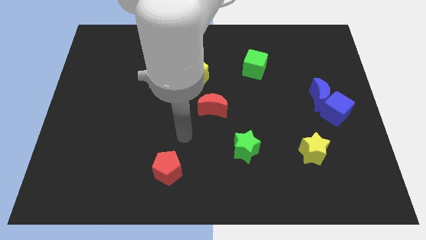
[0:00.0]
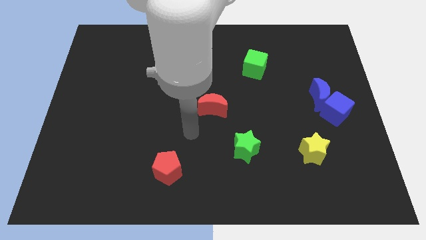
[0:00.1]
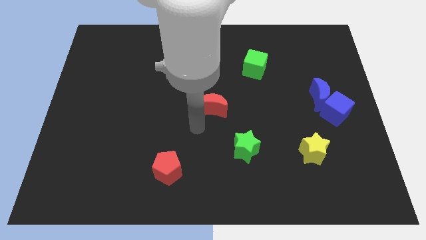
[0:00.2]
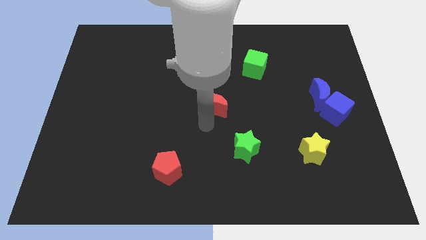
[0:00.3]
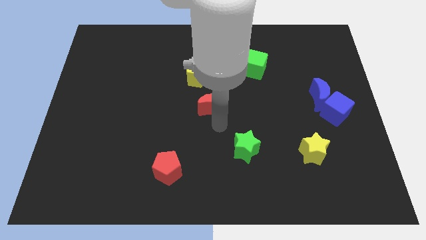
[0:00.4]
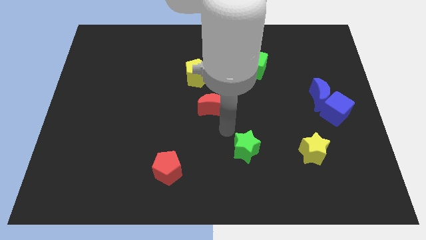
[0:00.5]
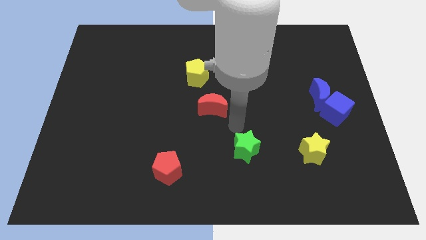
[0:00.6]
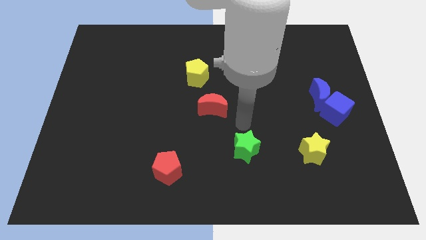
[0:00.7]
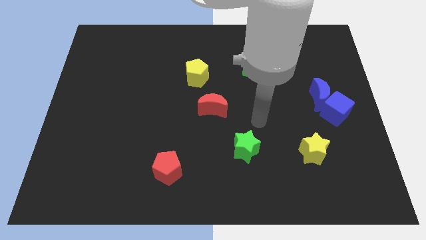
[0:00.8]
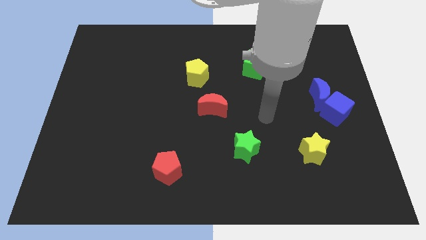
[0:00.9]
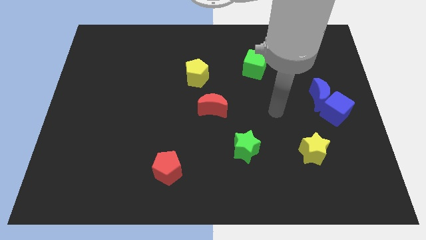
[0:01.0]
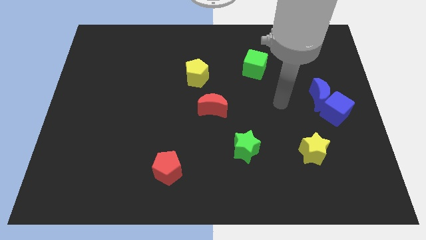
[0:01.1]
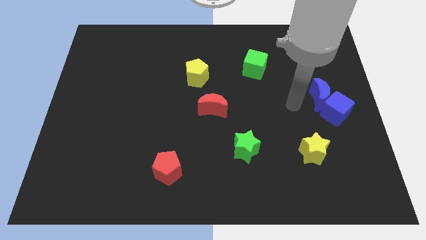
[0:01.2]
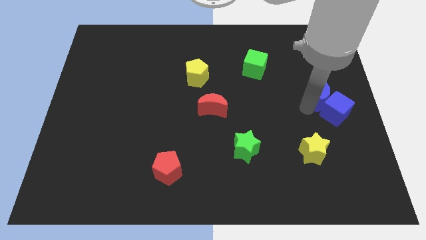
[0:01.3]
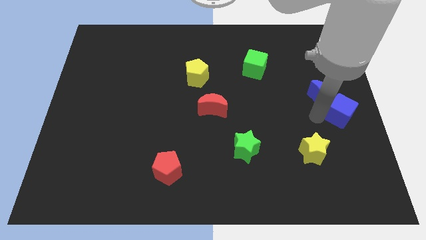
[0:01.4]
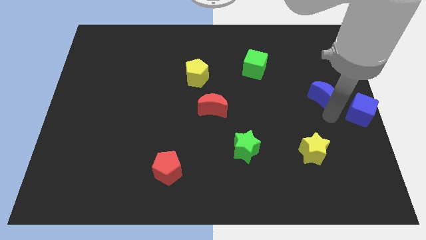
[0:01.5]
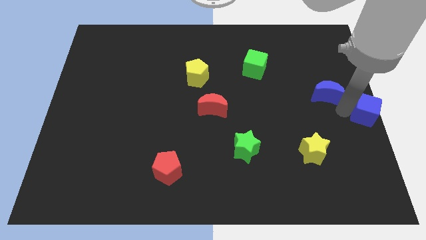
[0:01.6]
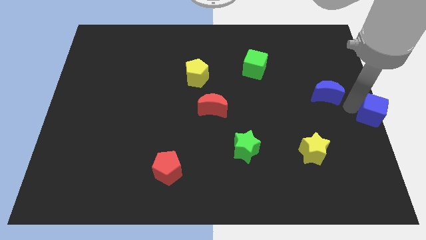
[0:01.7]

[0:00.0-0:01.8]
pull the blue moon apart from the blue cube

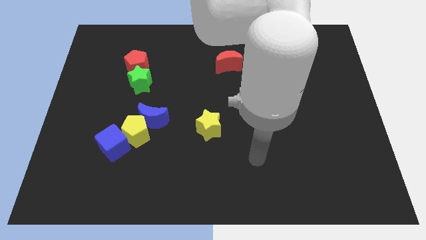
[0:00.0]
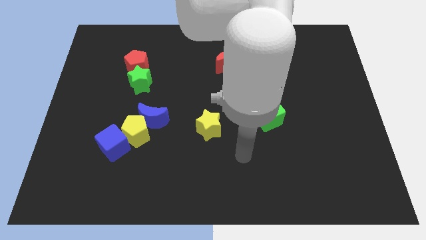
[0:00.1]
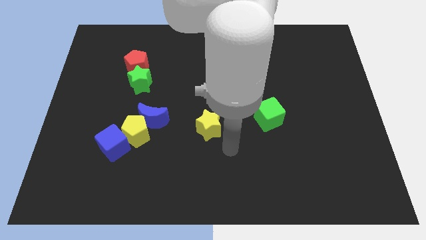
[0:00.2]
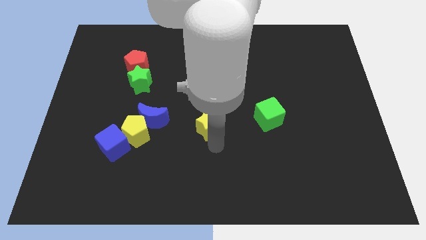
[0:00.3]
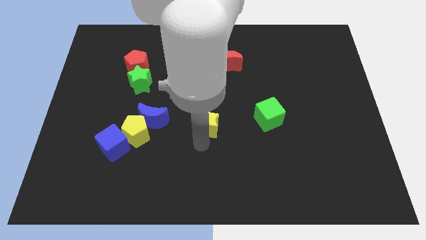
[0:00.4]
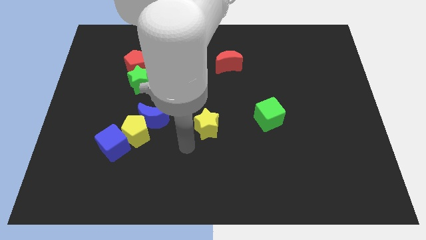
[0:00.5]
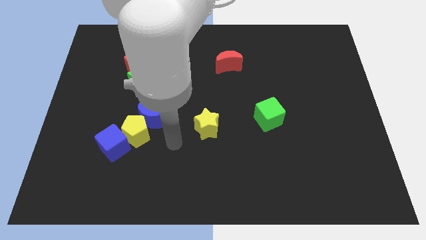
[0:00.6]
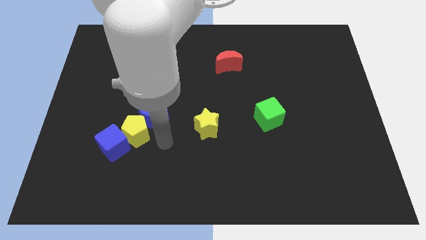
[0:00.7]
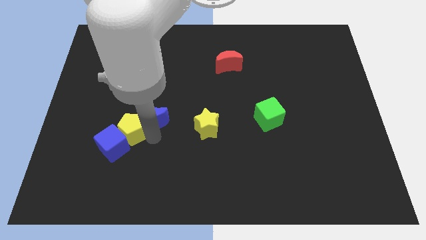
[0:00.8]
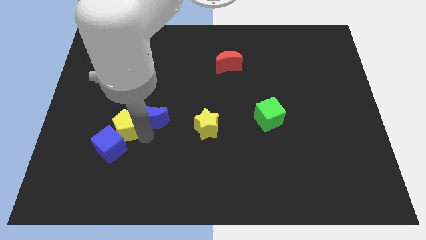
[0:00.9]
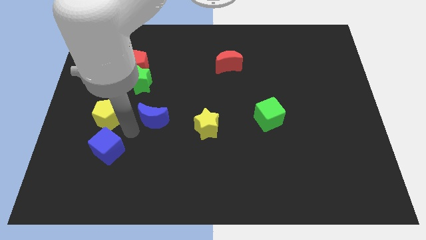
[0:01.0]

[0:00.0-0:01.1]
separate the blue moon from the yellow pentagon

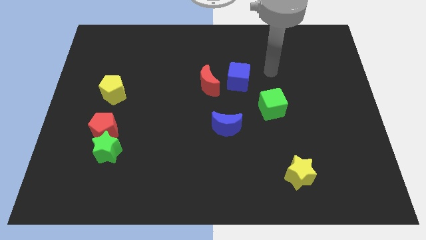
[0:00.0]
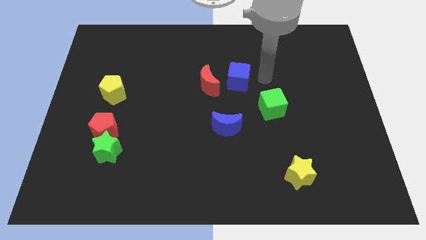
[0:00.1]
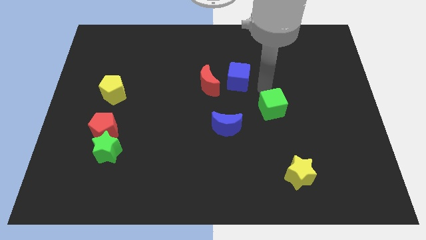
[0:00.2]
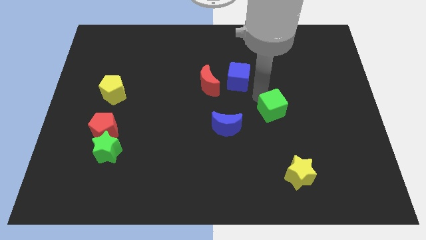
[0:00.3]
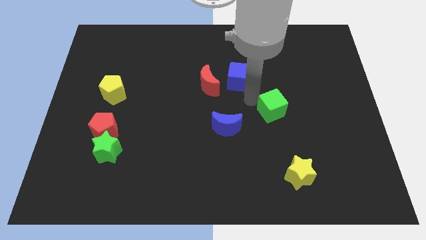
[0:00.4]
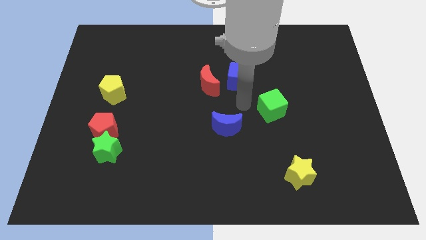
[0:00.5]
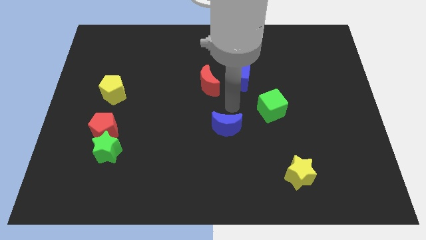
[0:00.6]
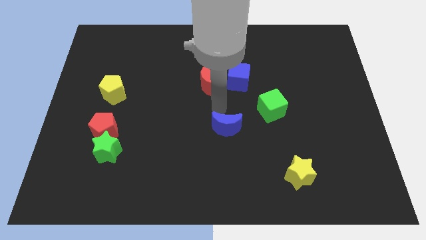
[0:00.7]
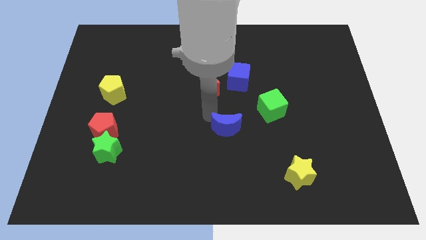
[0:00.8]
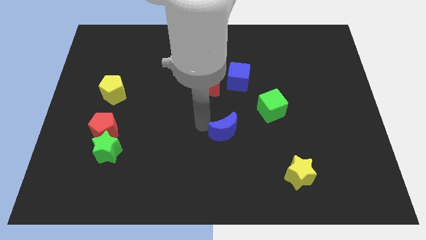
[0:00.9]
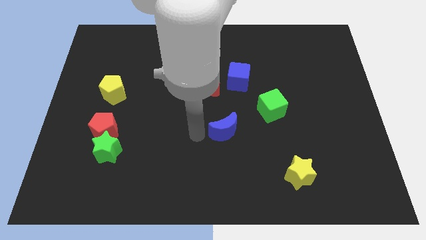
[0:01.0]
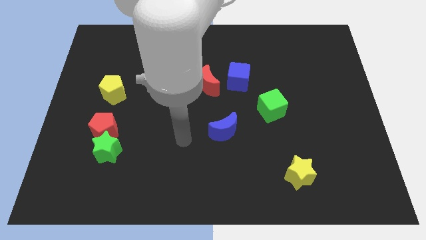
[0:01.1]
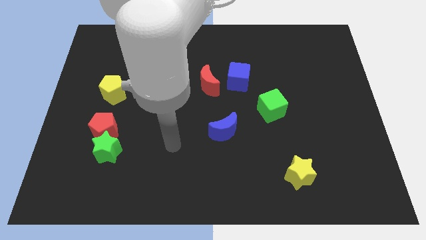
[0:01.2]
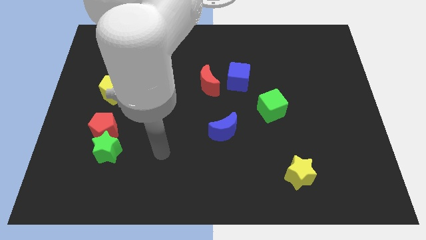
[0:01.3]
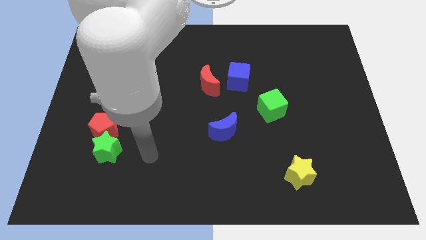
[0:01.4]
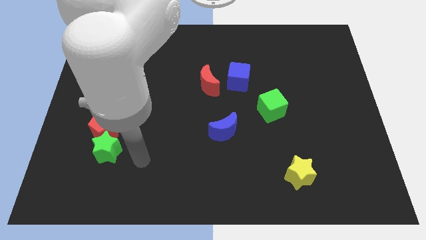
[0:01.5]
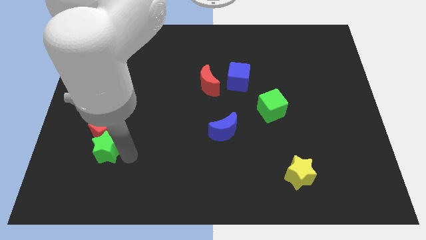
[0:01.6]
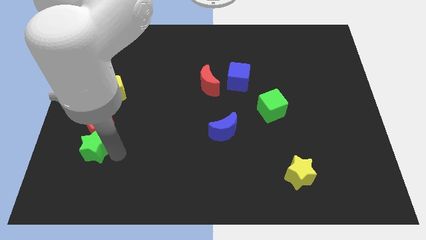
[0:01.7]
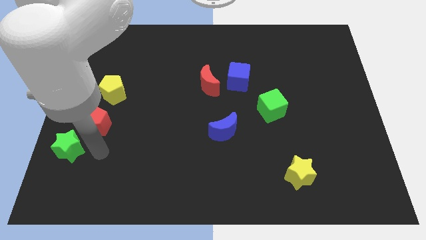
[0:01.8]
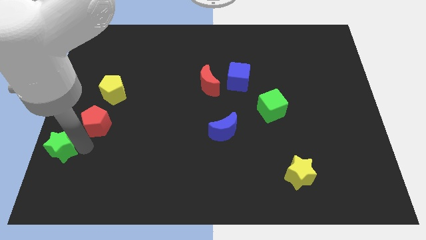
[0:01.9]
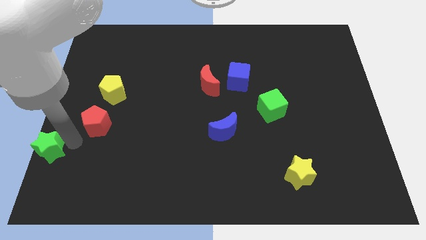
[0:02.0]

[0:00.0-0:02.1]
move the red pentagon away from the green star

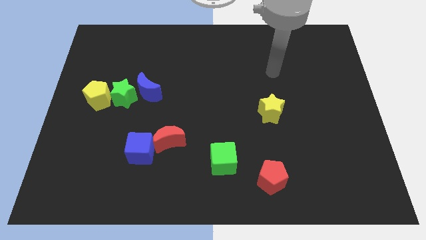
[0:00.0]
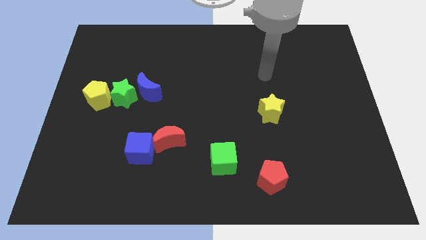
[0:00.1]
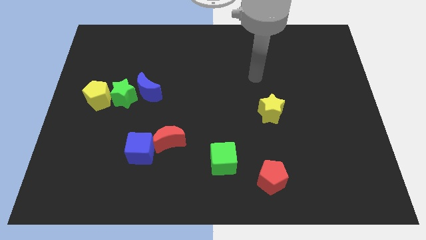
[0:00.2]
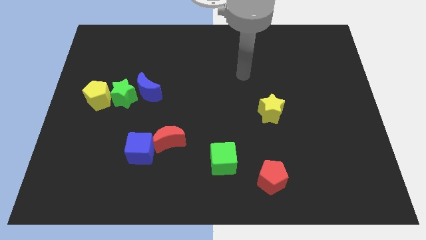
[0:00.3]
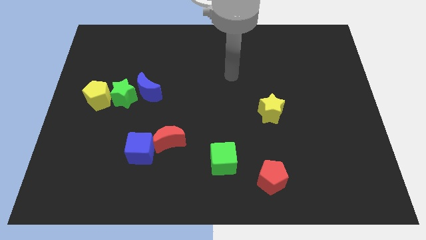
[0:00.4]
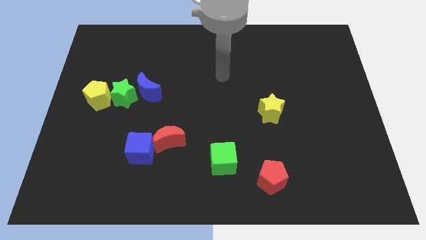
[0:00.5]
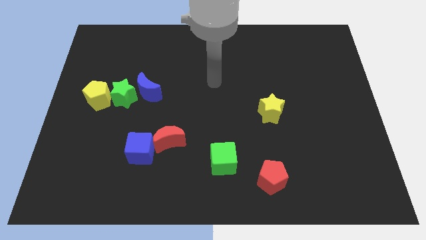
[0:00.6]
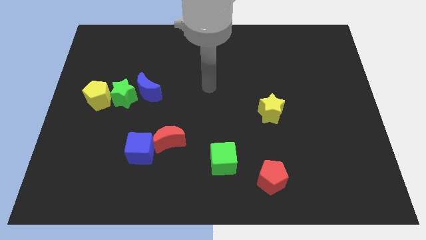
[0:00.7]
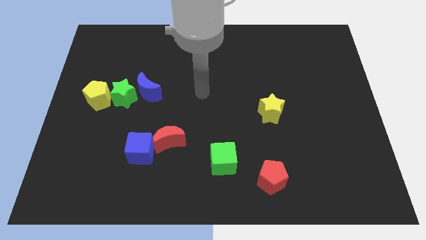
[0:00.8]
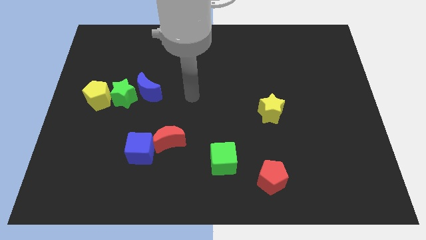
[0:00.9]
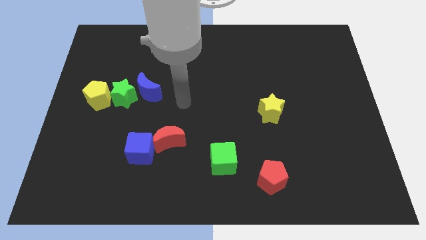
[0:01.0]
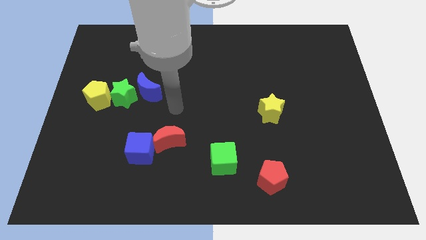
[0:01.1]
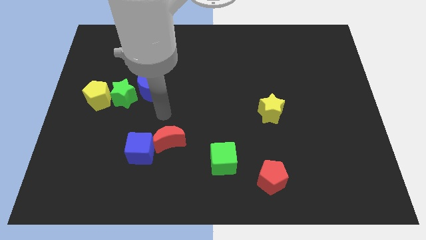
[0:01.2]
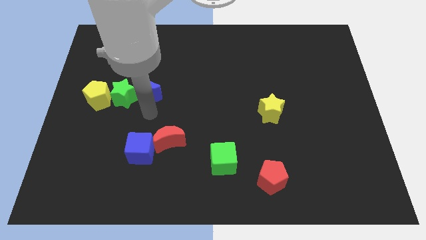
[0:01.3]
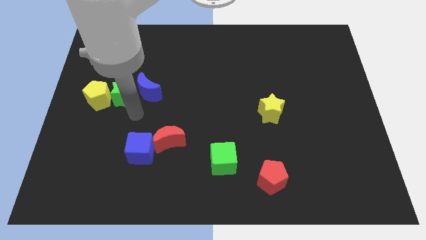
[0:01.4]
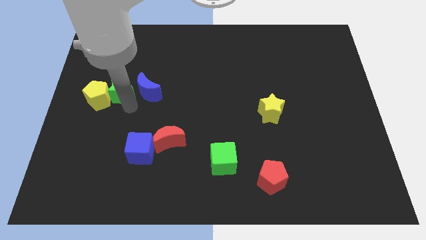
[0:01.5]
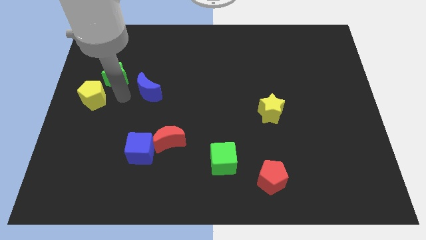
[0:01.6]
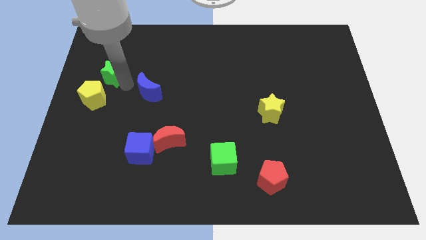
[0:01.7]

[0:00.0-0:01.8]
pull the blue moon apart from the green star

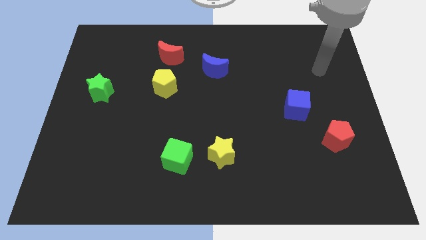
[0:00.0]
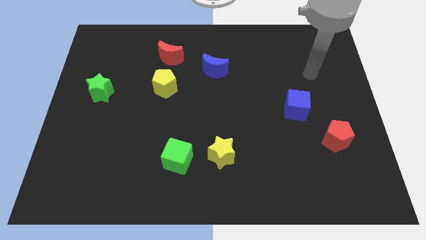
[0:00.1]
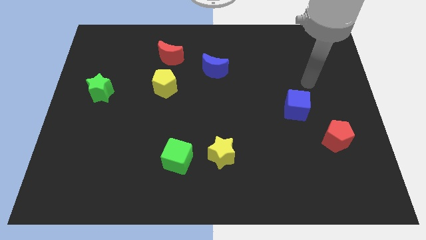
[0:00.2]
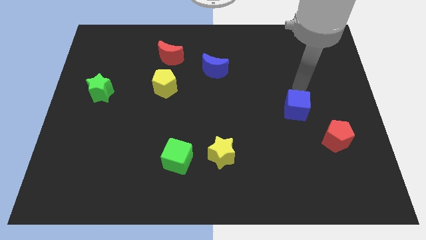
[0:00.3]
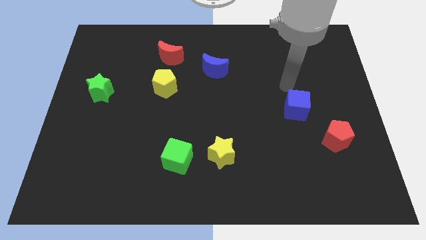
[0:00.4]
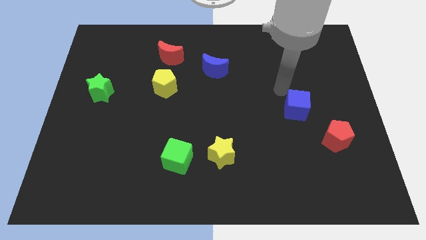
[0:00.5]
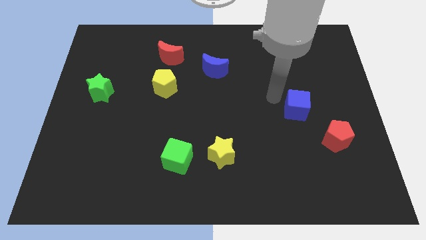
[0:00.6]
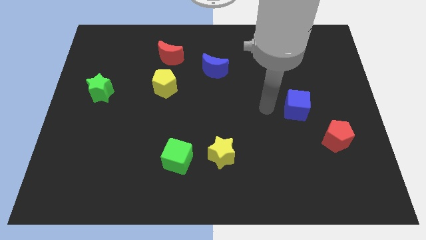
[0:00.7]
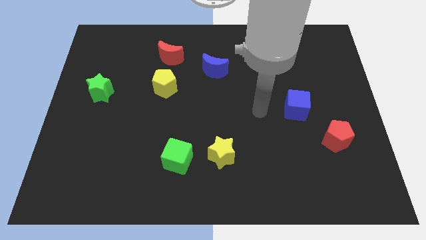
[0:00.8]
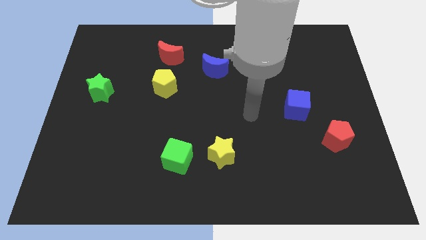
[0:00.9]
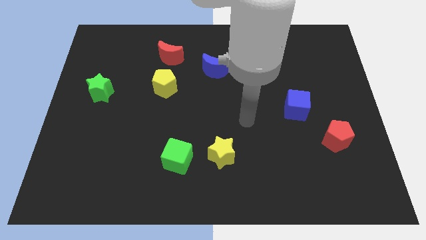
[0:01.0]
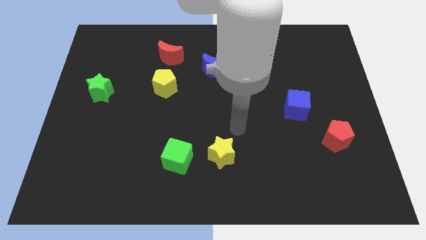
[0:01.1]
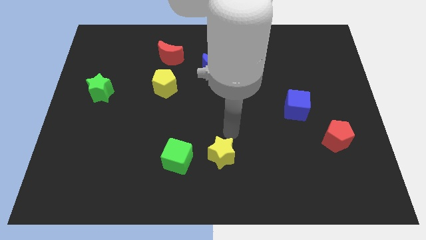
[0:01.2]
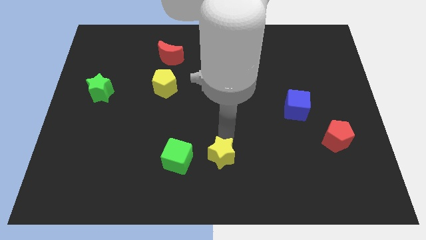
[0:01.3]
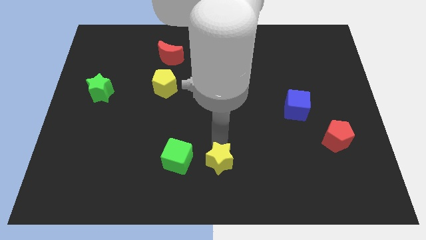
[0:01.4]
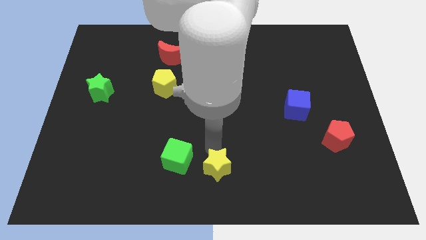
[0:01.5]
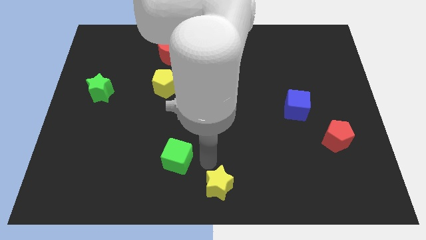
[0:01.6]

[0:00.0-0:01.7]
move the green cube away from the yellow star

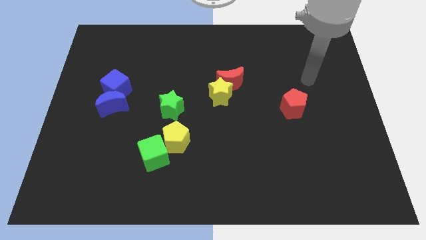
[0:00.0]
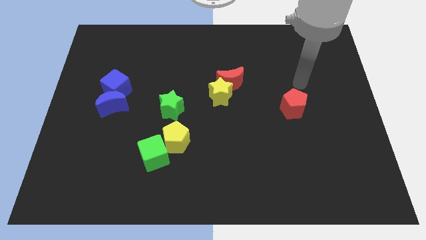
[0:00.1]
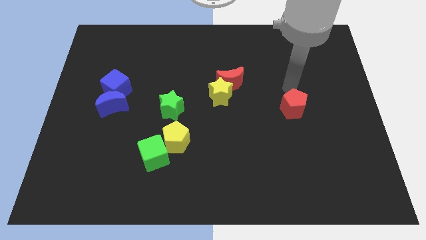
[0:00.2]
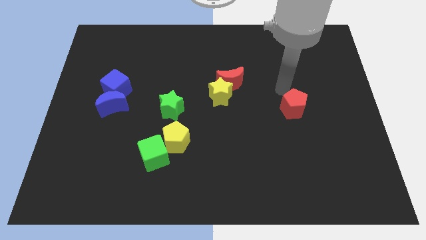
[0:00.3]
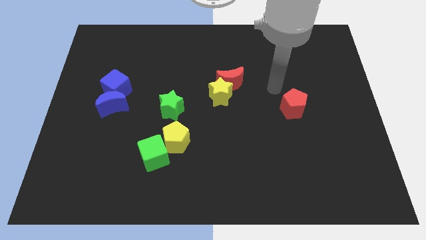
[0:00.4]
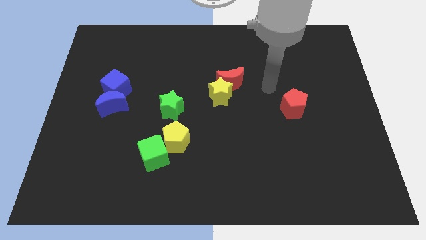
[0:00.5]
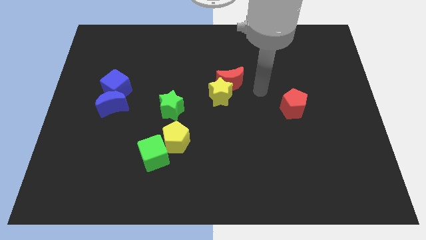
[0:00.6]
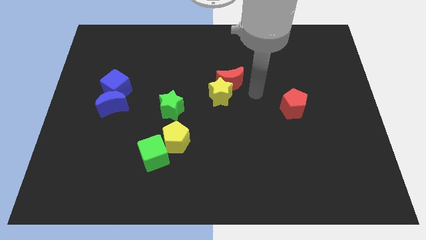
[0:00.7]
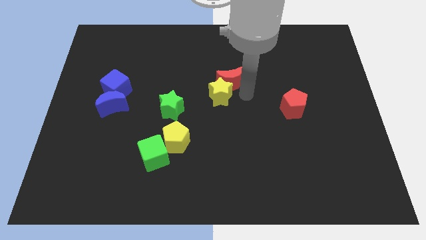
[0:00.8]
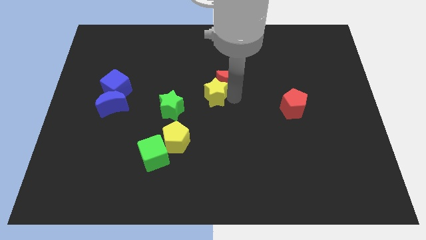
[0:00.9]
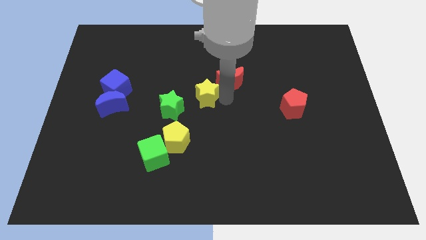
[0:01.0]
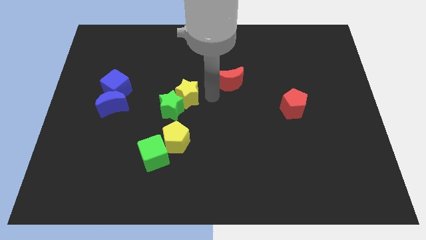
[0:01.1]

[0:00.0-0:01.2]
separate the red moon from the yellow star
